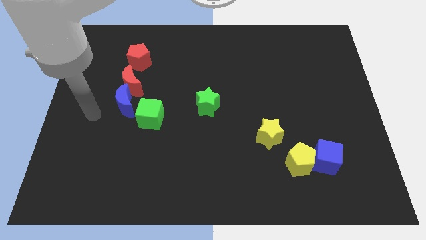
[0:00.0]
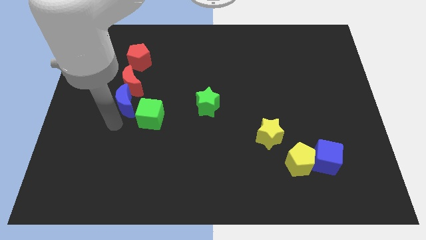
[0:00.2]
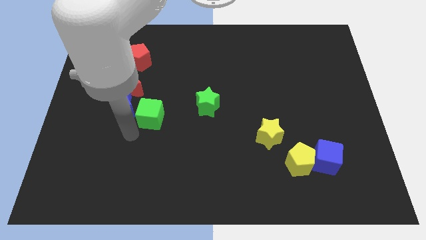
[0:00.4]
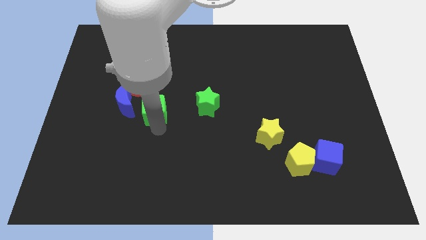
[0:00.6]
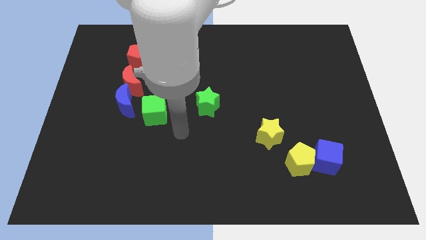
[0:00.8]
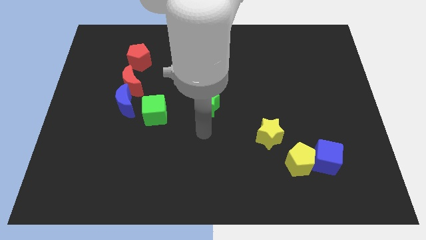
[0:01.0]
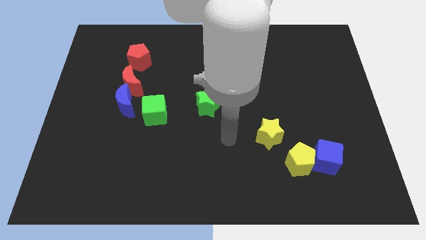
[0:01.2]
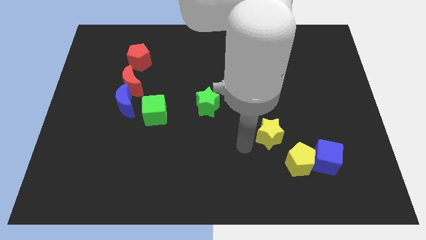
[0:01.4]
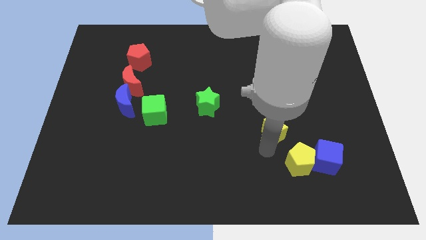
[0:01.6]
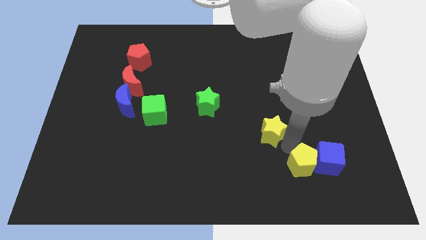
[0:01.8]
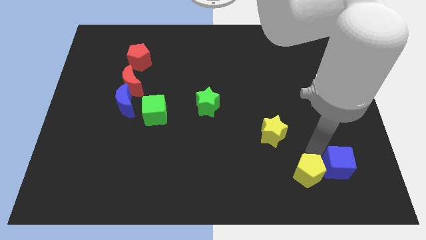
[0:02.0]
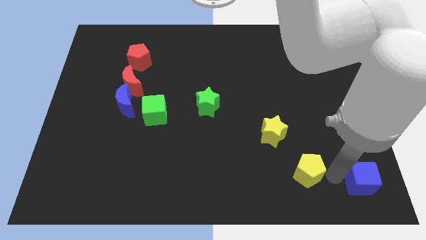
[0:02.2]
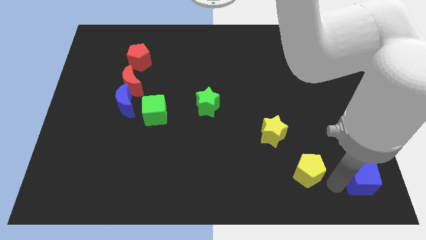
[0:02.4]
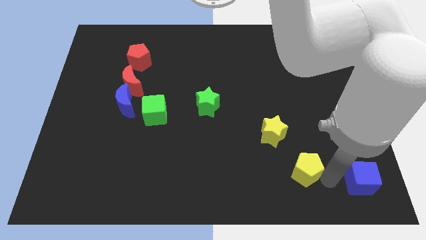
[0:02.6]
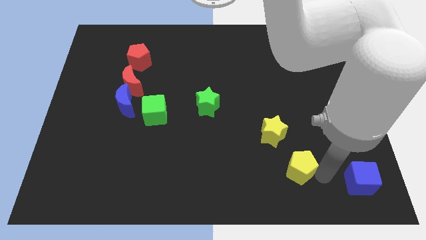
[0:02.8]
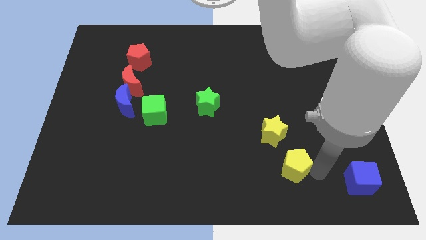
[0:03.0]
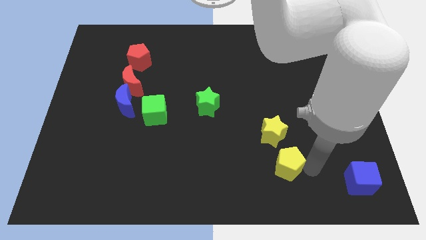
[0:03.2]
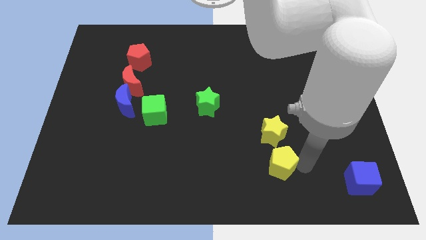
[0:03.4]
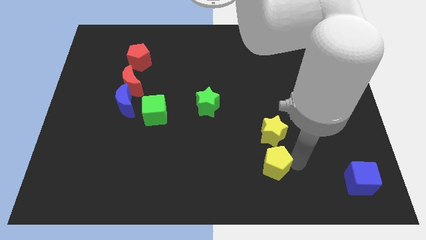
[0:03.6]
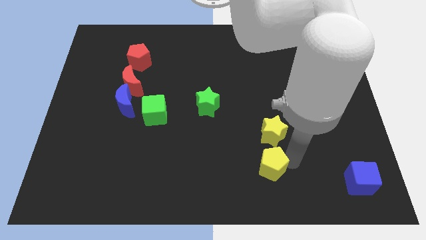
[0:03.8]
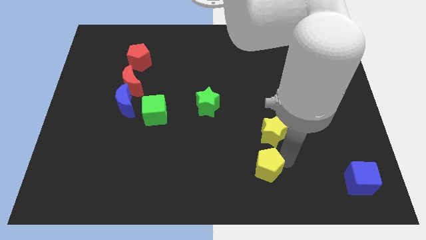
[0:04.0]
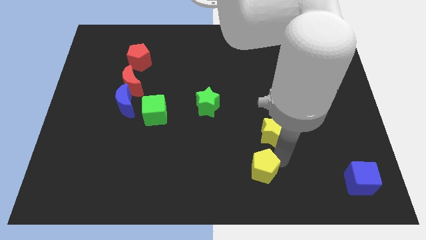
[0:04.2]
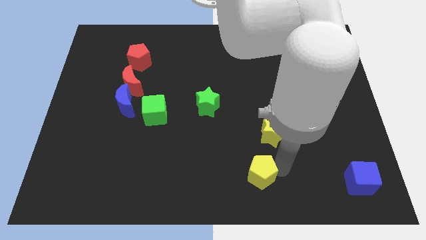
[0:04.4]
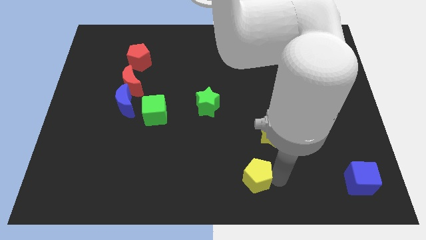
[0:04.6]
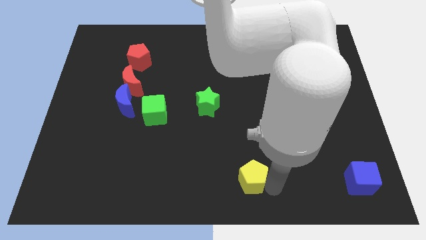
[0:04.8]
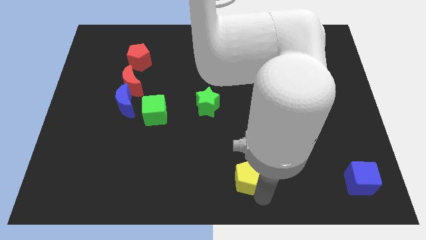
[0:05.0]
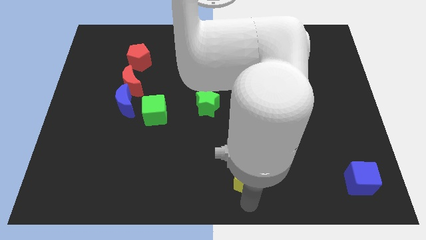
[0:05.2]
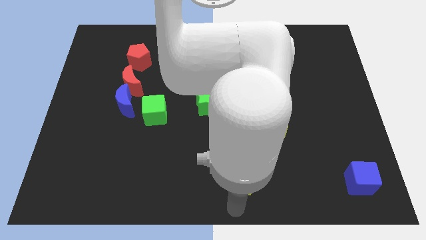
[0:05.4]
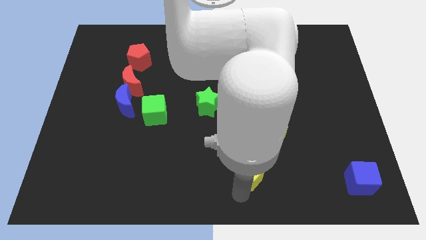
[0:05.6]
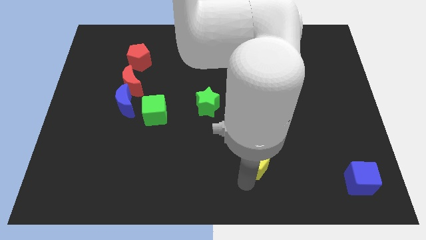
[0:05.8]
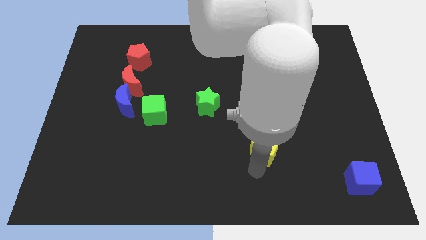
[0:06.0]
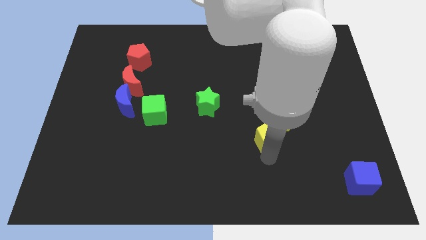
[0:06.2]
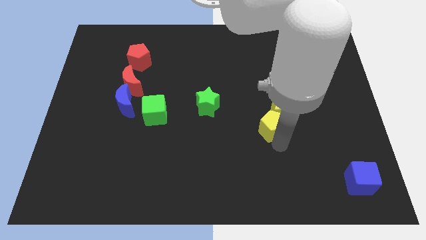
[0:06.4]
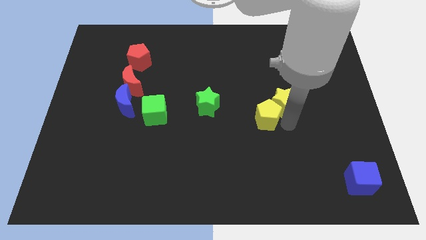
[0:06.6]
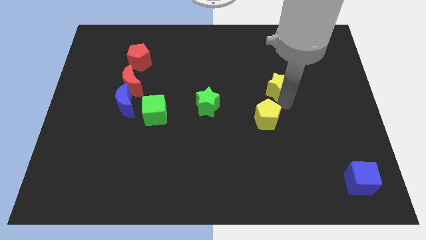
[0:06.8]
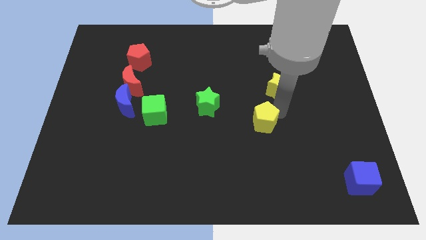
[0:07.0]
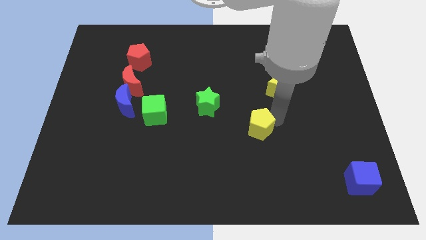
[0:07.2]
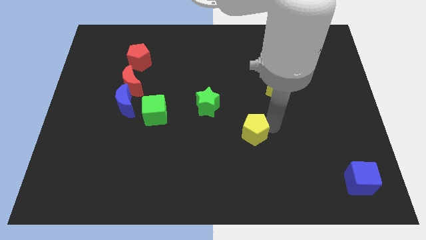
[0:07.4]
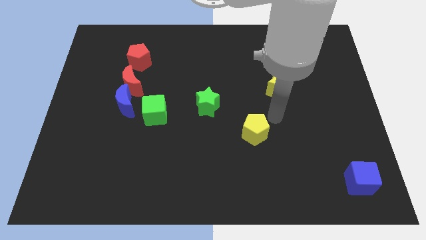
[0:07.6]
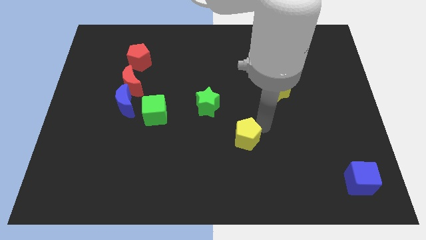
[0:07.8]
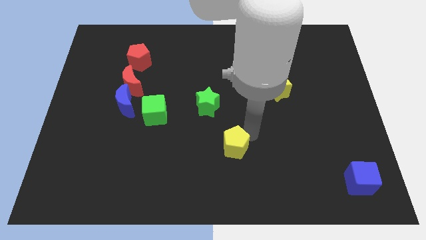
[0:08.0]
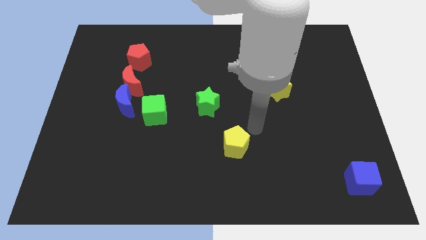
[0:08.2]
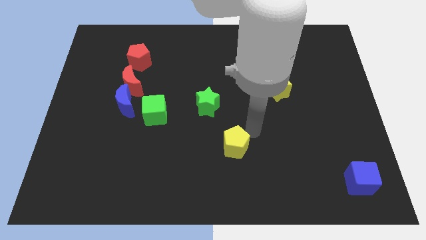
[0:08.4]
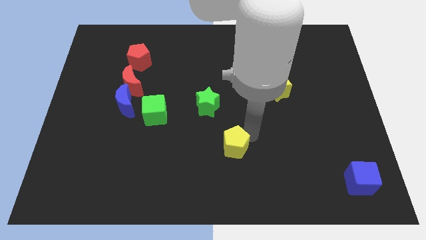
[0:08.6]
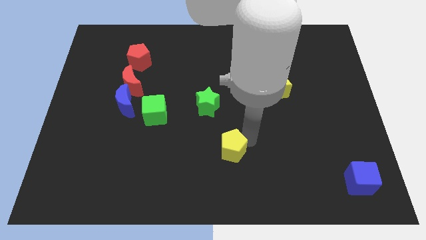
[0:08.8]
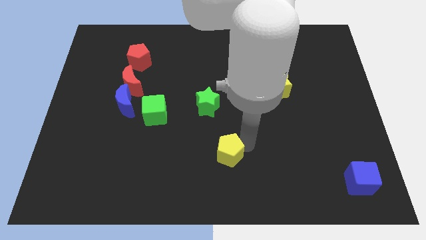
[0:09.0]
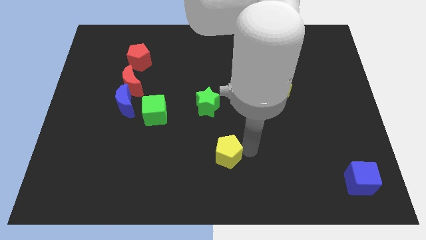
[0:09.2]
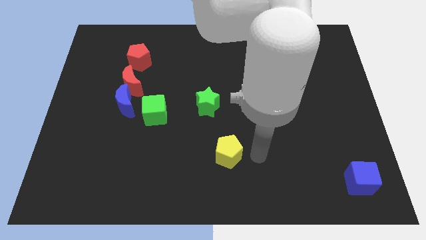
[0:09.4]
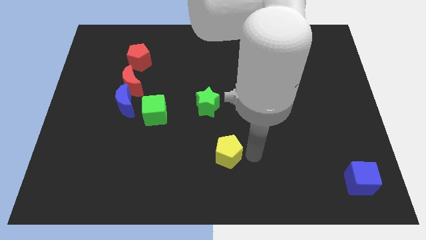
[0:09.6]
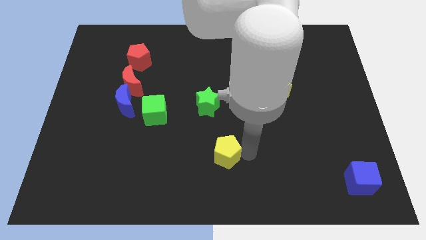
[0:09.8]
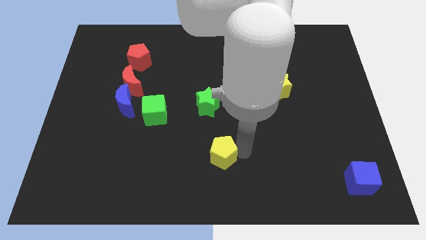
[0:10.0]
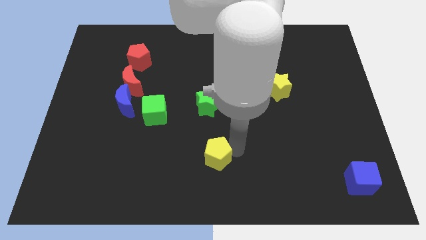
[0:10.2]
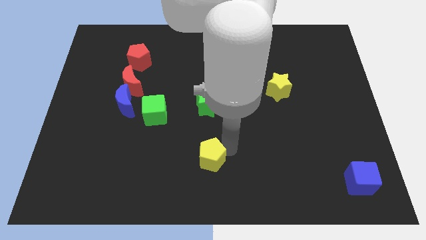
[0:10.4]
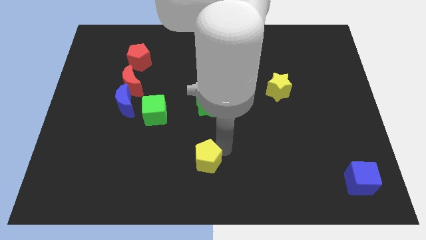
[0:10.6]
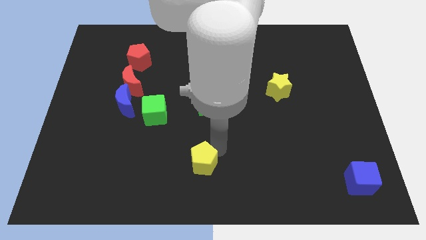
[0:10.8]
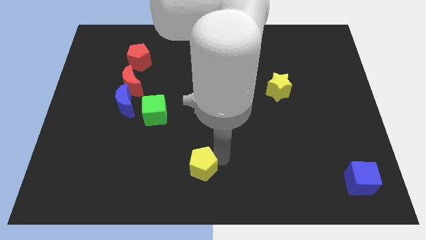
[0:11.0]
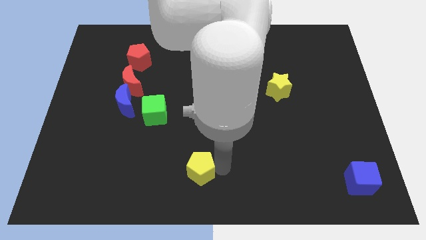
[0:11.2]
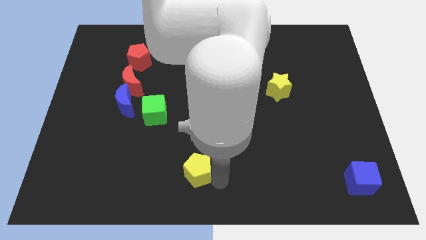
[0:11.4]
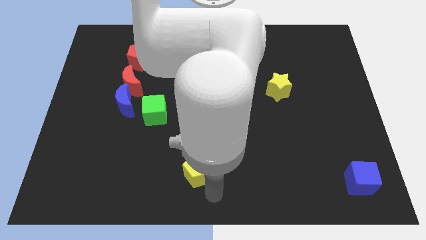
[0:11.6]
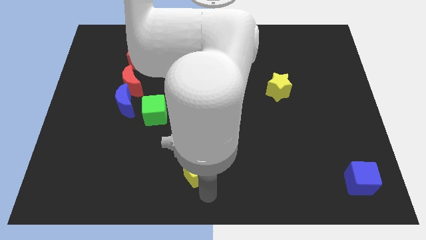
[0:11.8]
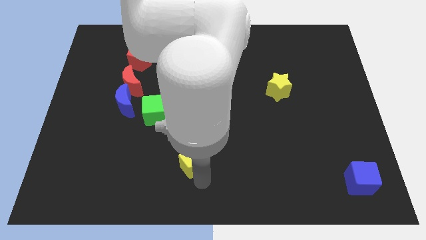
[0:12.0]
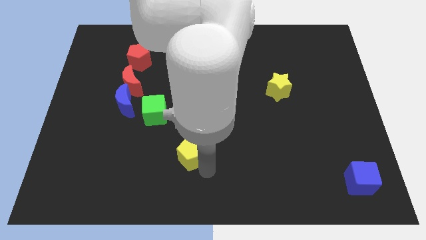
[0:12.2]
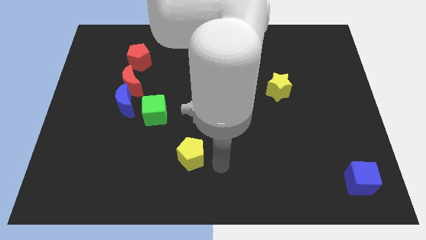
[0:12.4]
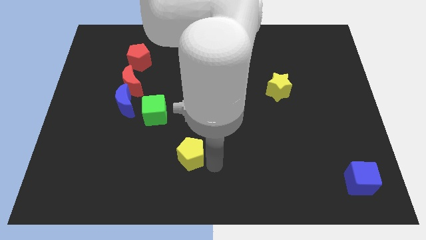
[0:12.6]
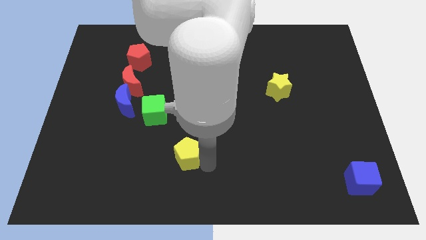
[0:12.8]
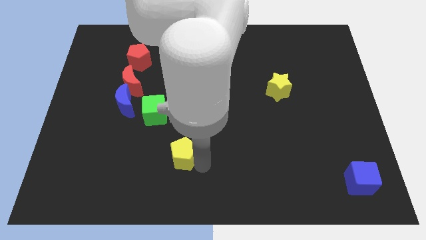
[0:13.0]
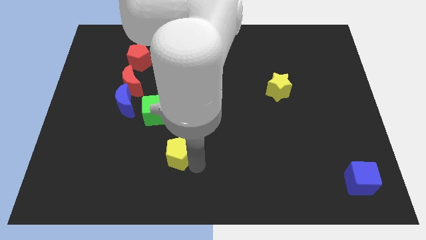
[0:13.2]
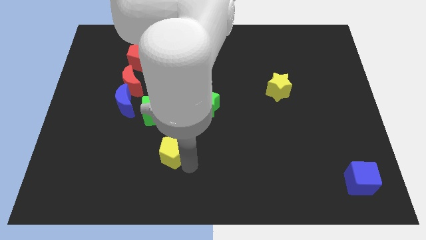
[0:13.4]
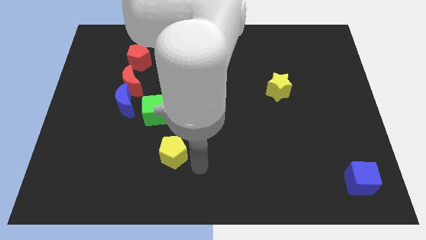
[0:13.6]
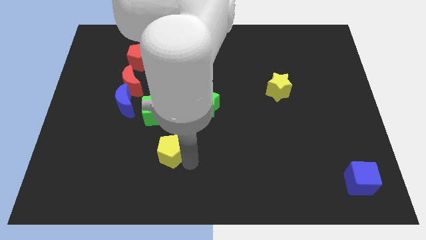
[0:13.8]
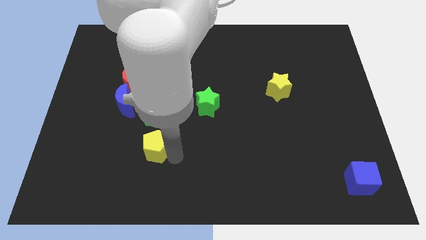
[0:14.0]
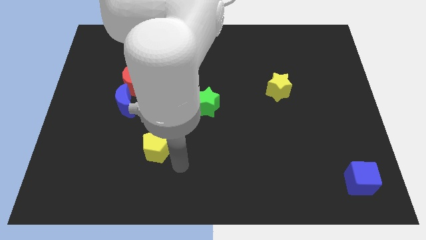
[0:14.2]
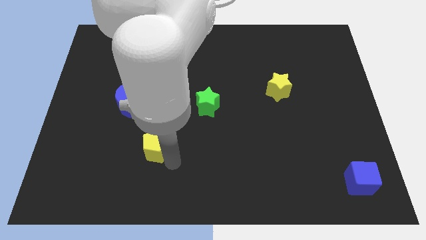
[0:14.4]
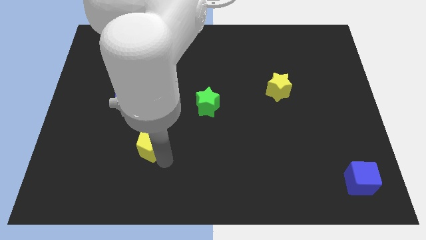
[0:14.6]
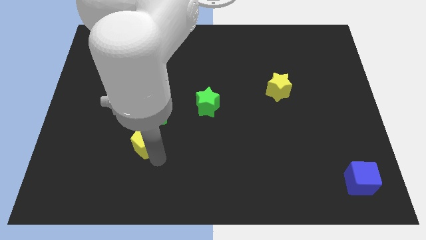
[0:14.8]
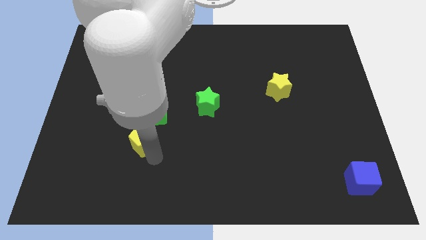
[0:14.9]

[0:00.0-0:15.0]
put the yellow pentagon to the bottom left side of the green cube

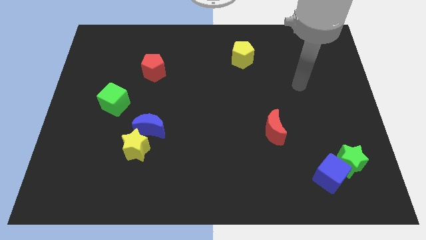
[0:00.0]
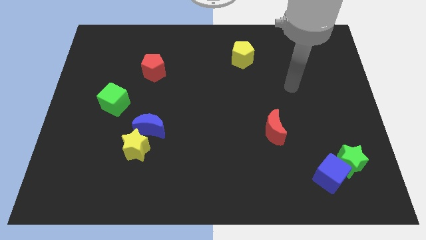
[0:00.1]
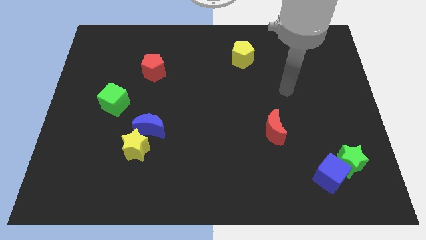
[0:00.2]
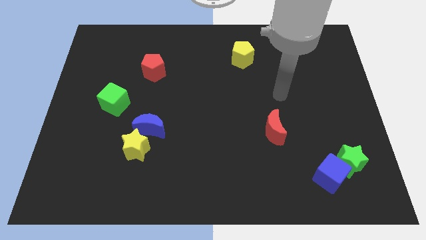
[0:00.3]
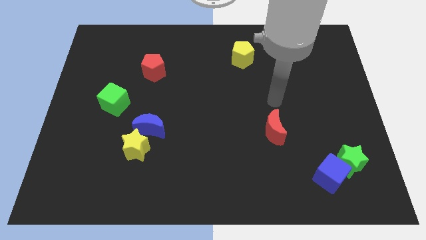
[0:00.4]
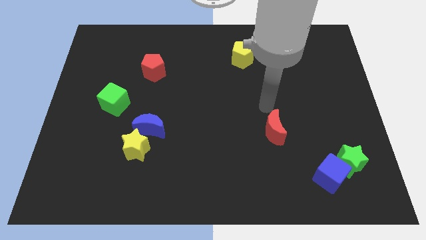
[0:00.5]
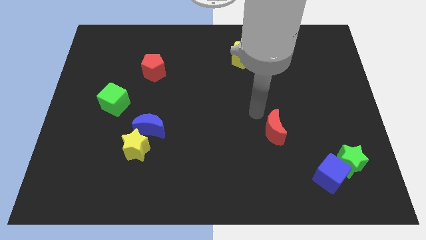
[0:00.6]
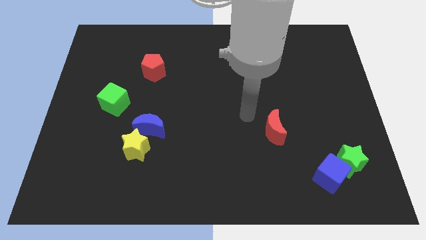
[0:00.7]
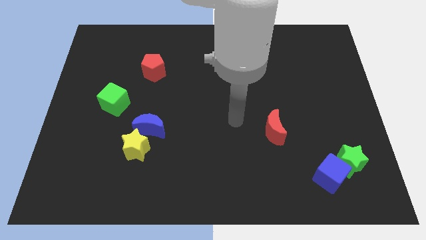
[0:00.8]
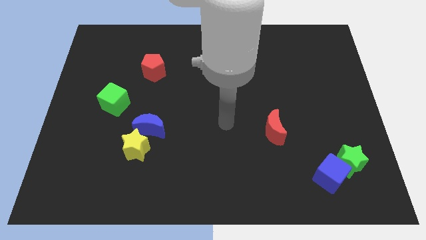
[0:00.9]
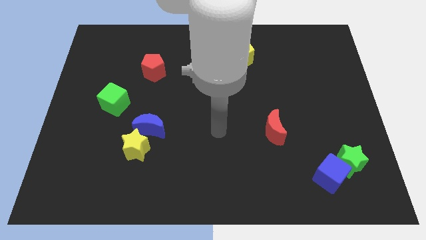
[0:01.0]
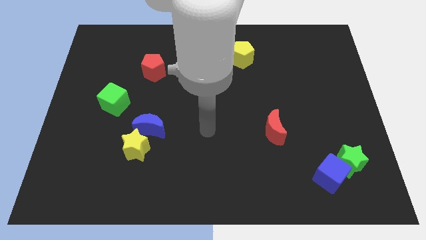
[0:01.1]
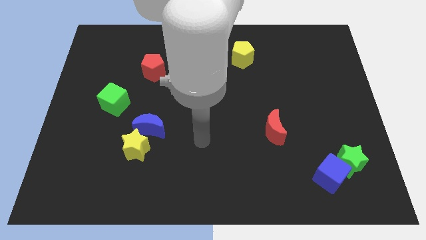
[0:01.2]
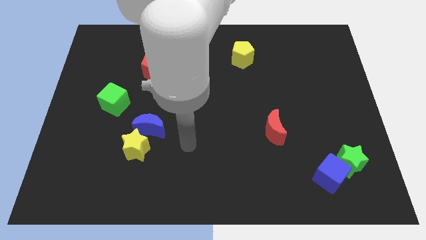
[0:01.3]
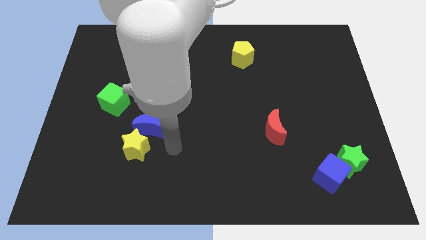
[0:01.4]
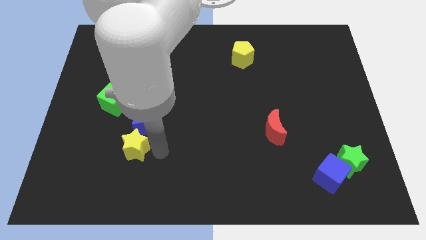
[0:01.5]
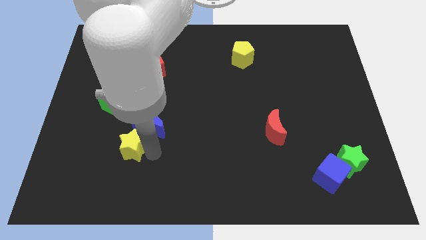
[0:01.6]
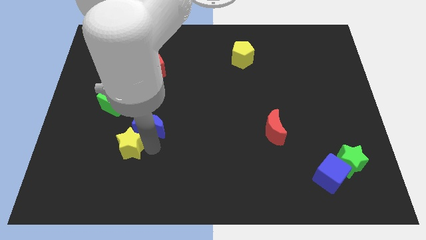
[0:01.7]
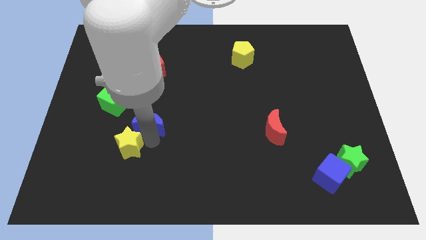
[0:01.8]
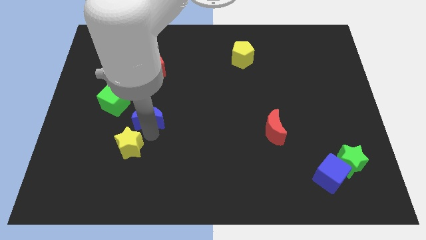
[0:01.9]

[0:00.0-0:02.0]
put the blue moon below the red pentagon
